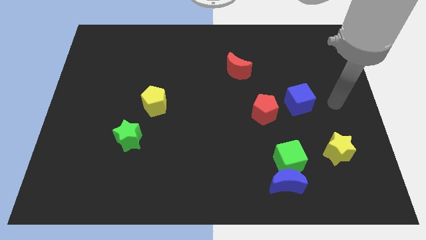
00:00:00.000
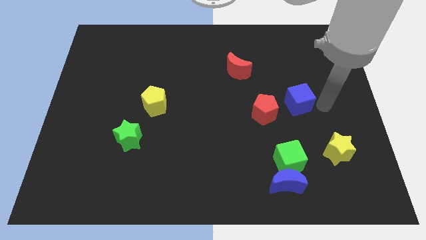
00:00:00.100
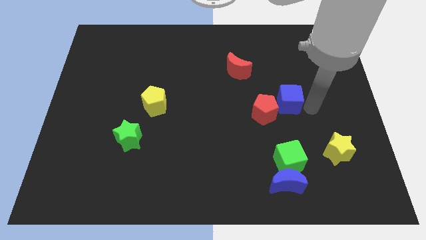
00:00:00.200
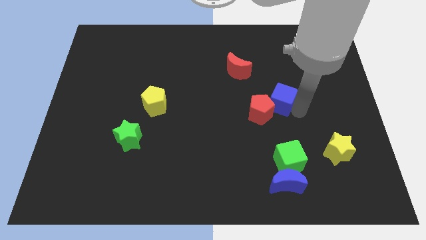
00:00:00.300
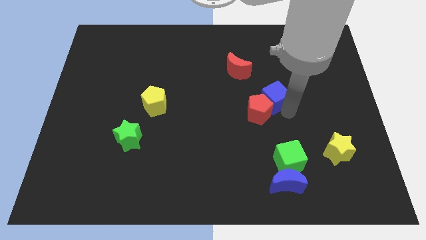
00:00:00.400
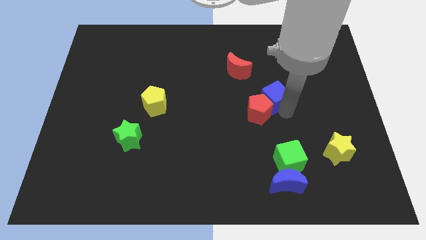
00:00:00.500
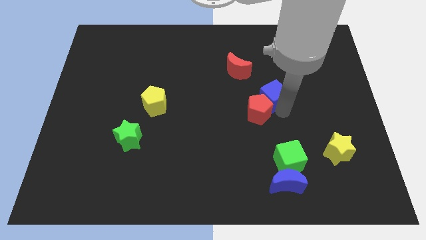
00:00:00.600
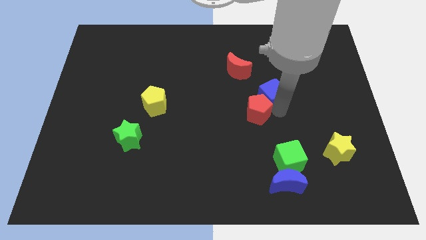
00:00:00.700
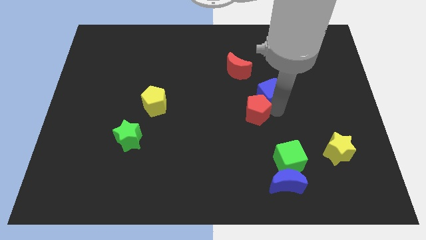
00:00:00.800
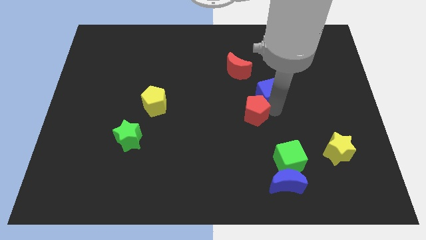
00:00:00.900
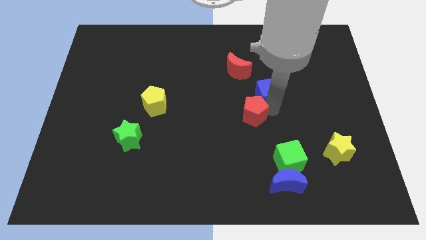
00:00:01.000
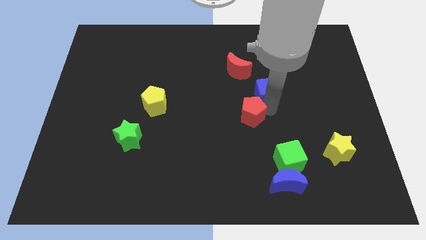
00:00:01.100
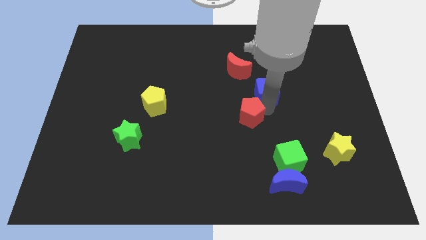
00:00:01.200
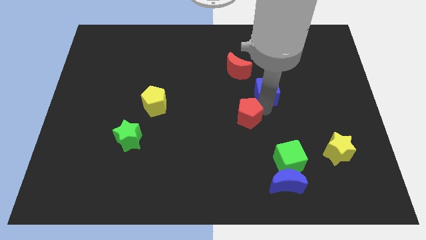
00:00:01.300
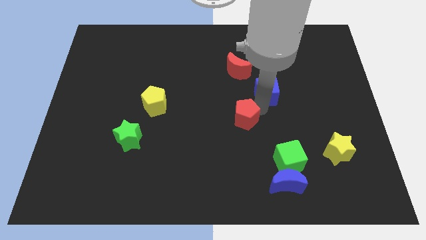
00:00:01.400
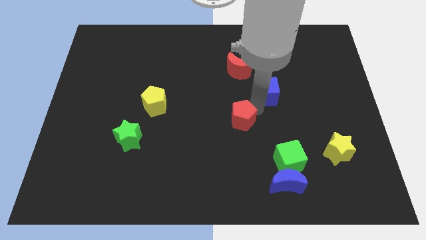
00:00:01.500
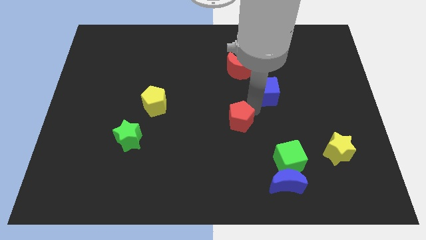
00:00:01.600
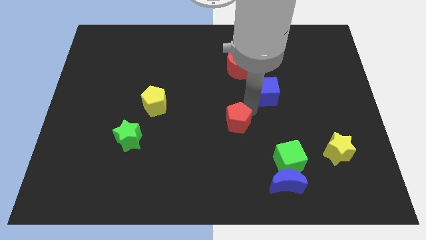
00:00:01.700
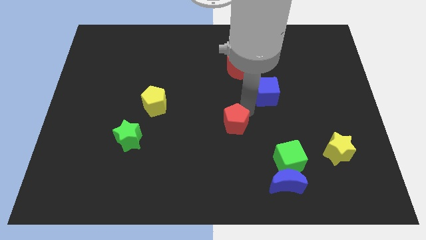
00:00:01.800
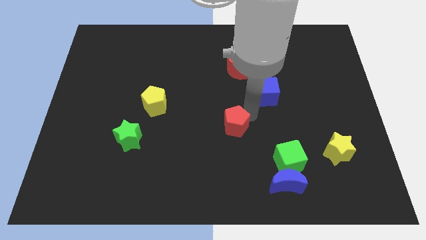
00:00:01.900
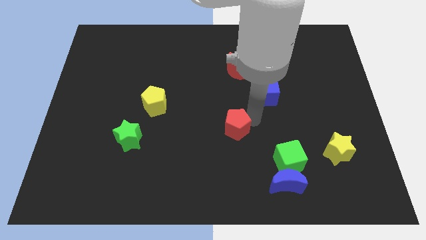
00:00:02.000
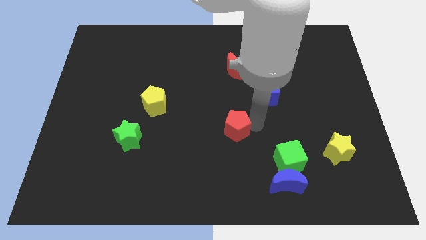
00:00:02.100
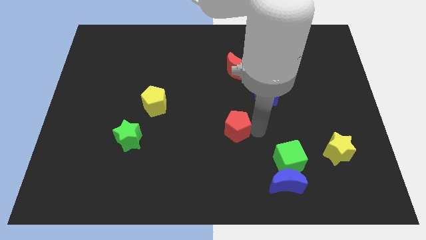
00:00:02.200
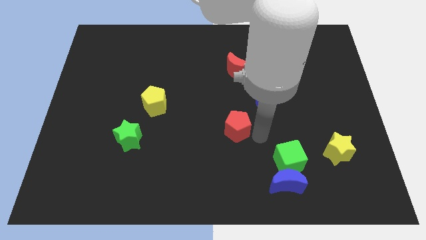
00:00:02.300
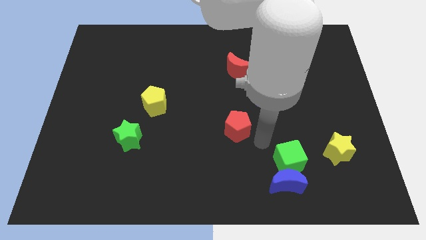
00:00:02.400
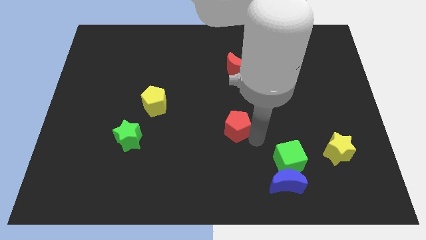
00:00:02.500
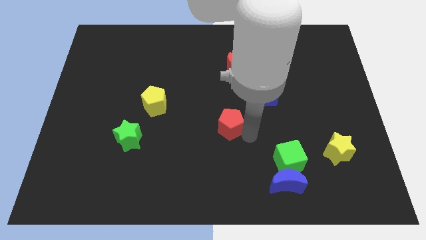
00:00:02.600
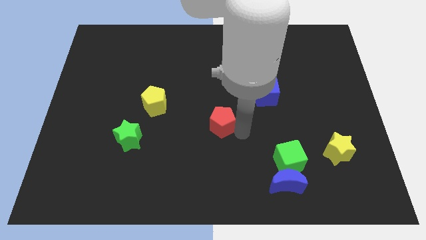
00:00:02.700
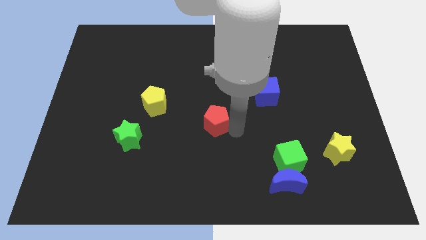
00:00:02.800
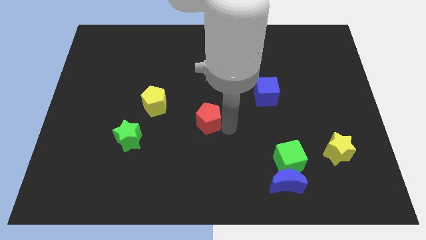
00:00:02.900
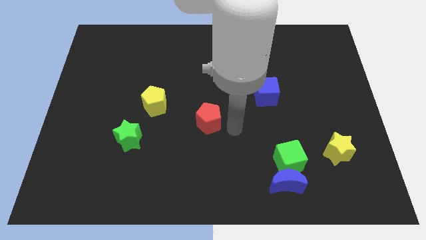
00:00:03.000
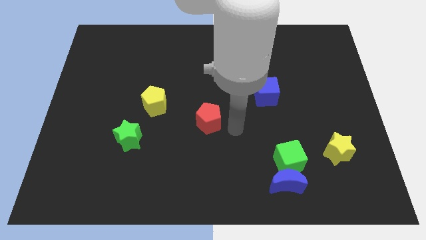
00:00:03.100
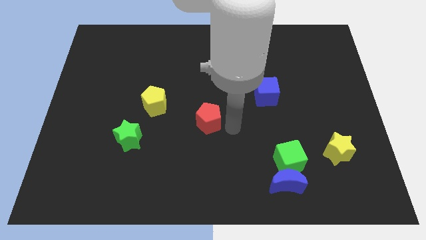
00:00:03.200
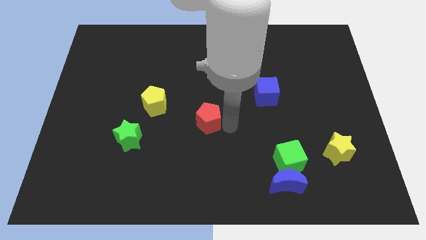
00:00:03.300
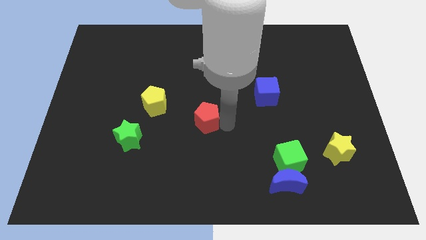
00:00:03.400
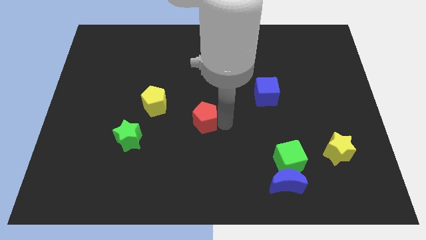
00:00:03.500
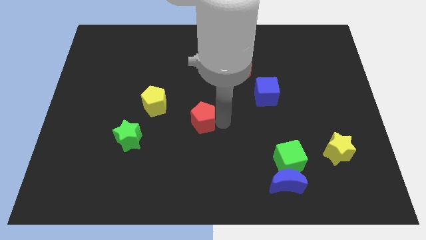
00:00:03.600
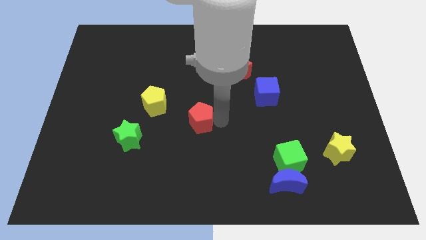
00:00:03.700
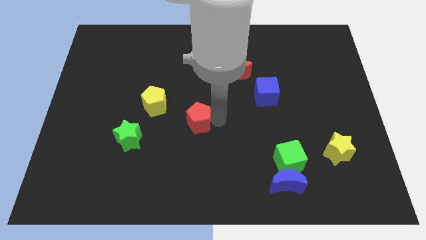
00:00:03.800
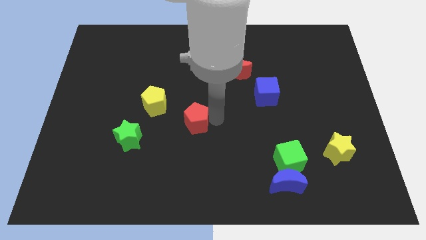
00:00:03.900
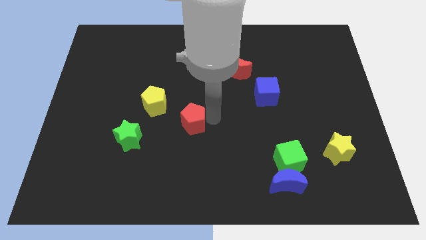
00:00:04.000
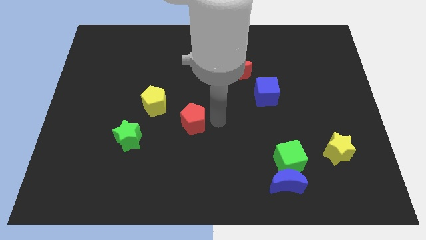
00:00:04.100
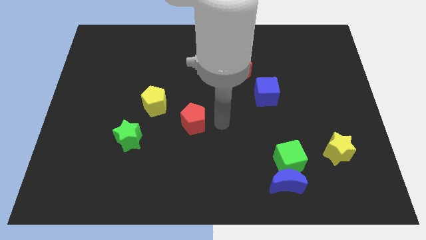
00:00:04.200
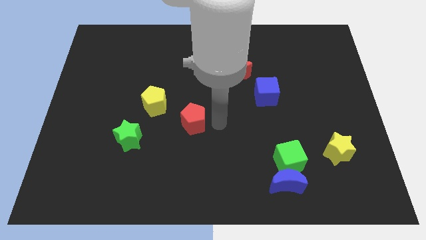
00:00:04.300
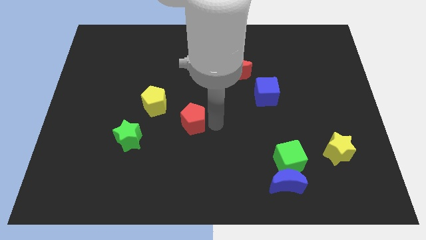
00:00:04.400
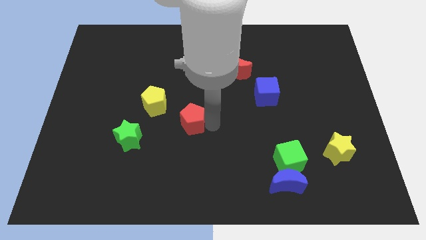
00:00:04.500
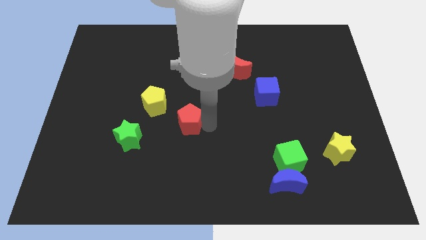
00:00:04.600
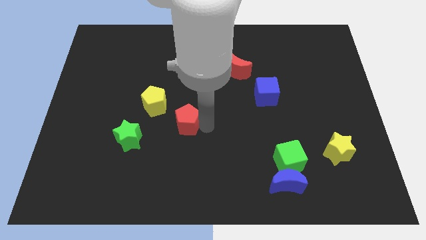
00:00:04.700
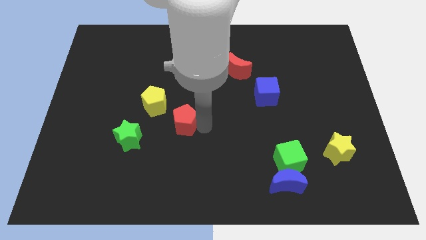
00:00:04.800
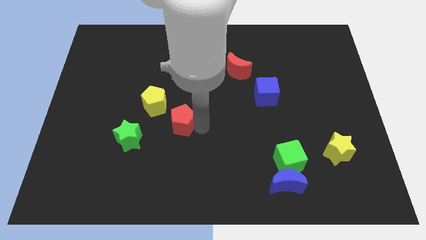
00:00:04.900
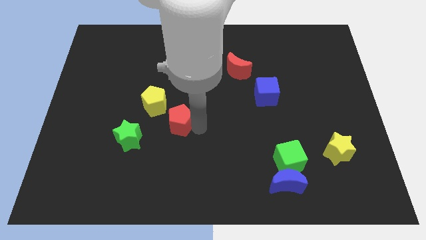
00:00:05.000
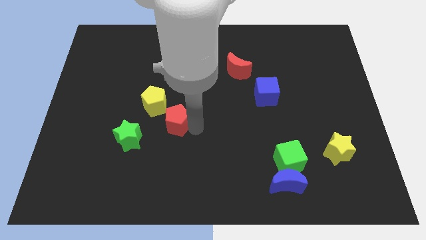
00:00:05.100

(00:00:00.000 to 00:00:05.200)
slide the red pentagon left

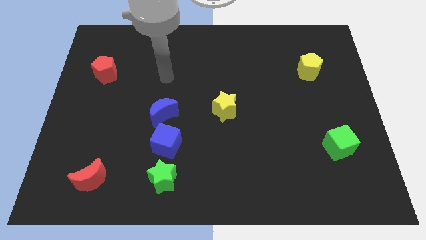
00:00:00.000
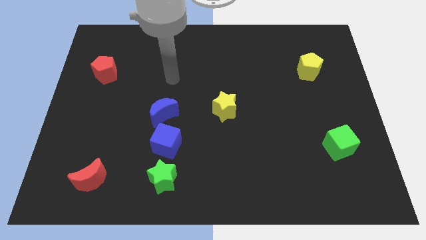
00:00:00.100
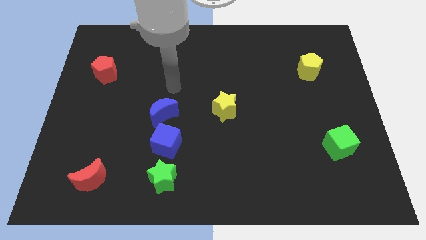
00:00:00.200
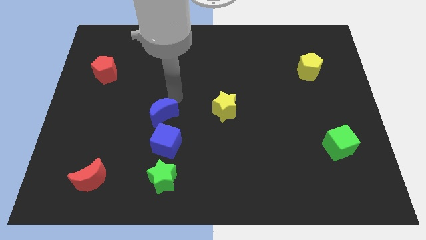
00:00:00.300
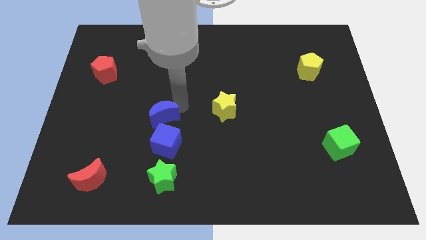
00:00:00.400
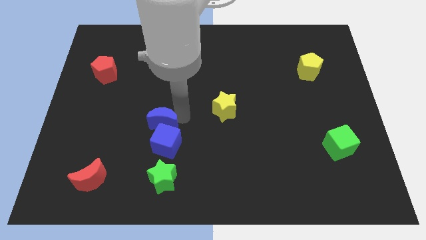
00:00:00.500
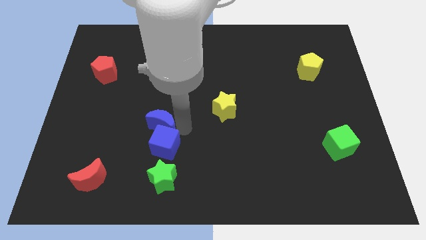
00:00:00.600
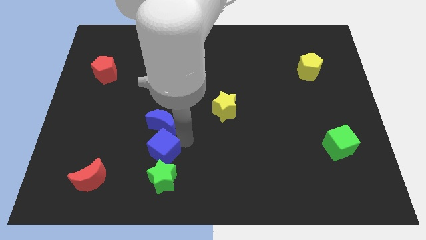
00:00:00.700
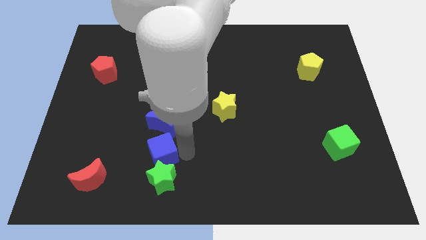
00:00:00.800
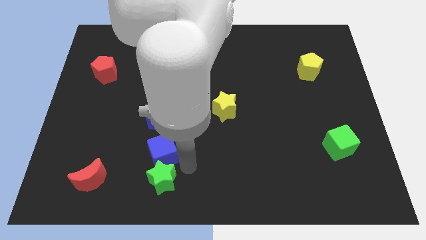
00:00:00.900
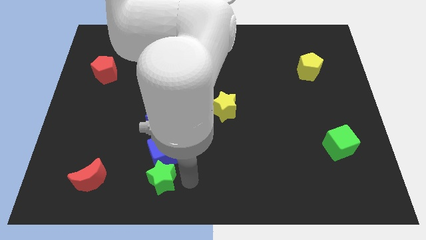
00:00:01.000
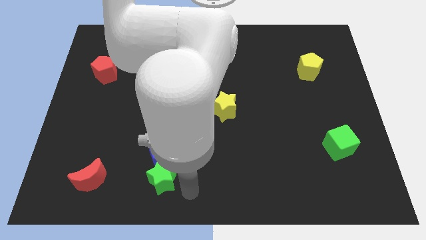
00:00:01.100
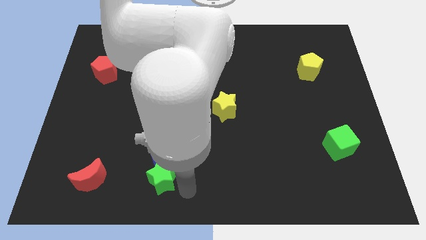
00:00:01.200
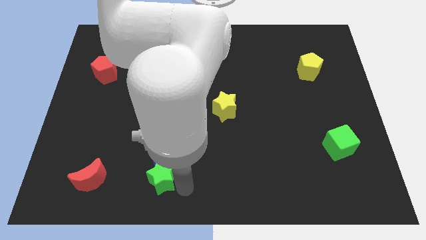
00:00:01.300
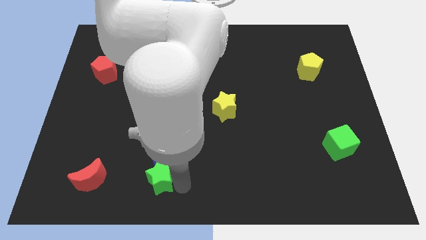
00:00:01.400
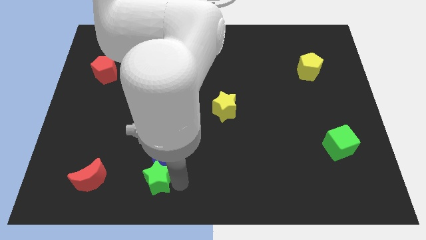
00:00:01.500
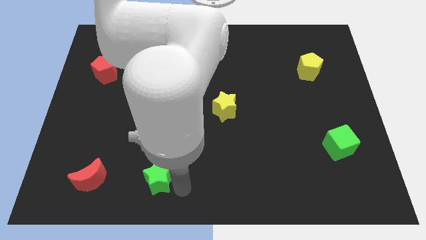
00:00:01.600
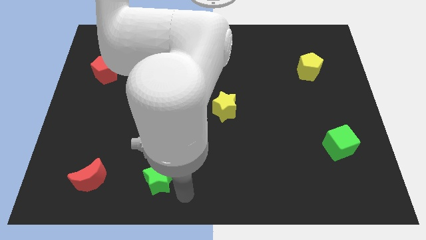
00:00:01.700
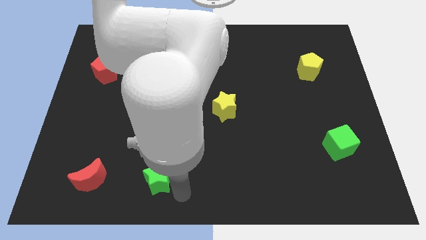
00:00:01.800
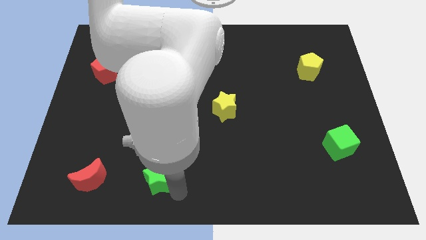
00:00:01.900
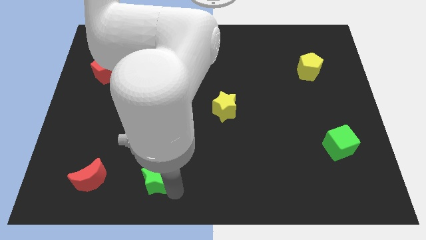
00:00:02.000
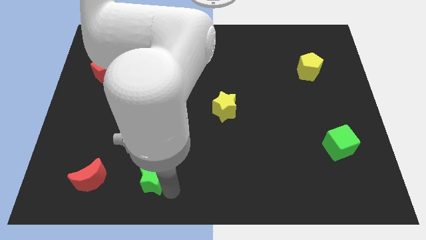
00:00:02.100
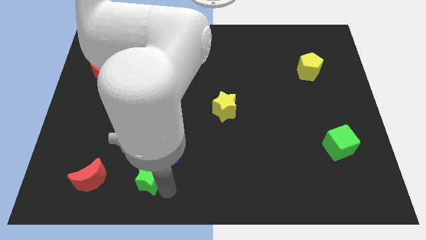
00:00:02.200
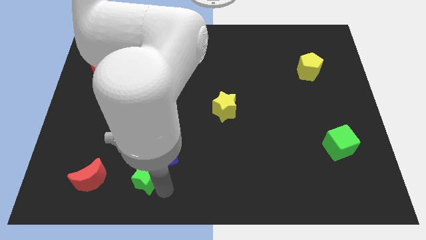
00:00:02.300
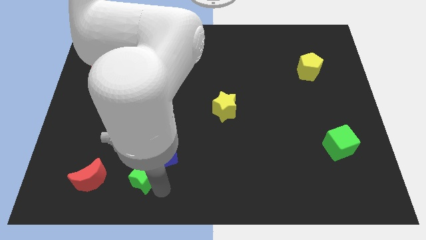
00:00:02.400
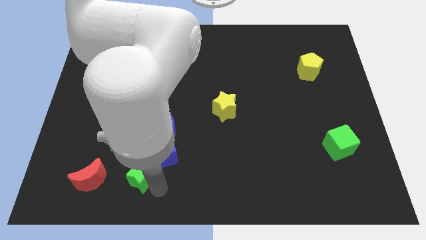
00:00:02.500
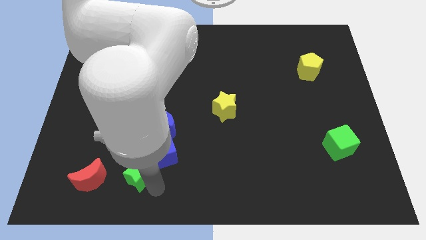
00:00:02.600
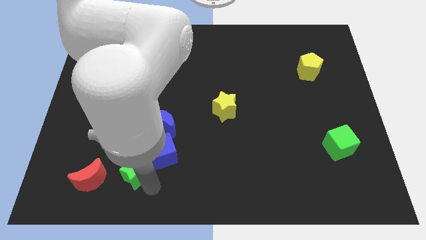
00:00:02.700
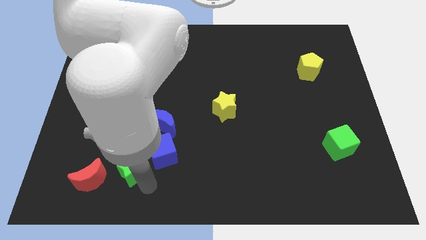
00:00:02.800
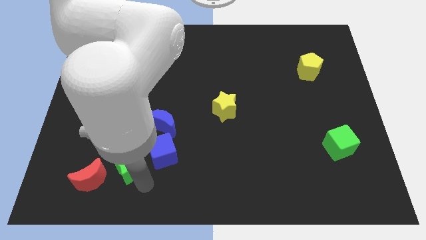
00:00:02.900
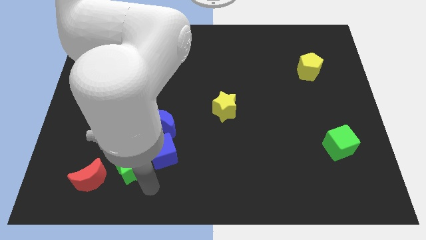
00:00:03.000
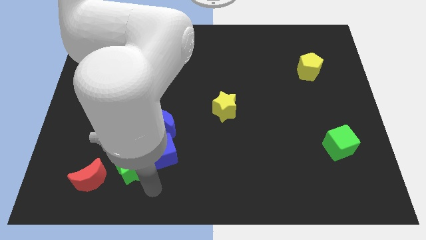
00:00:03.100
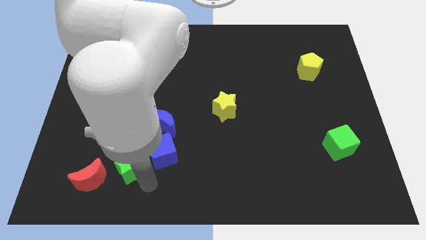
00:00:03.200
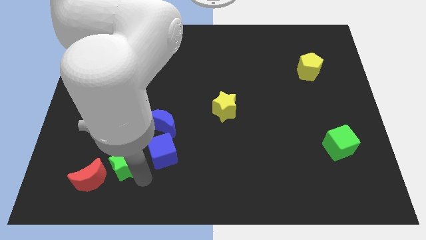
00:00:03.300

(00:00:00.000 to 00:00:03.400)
move the green star up and left diagonally a little bit
